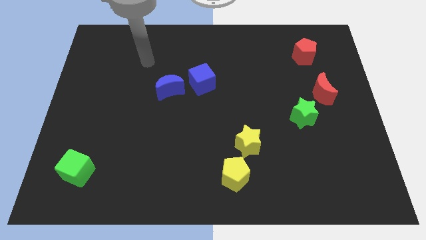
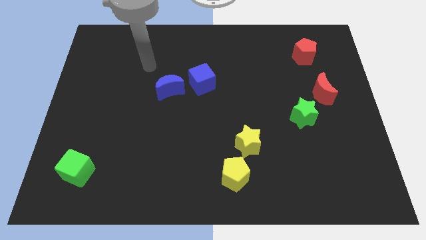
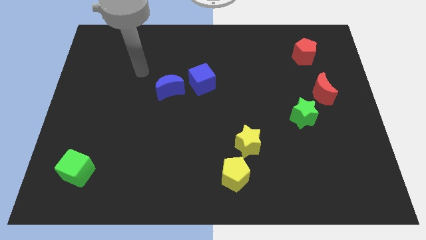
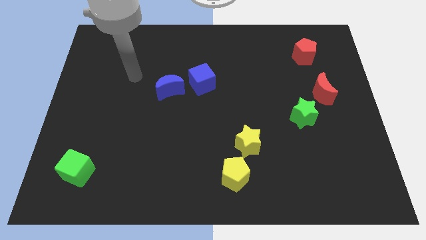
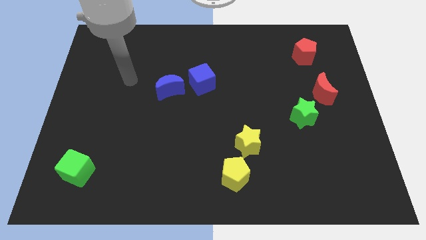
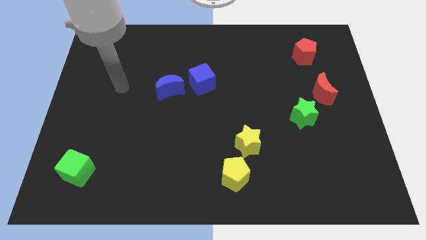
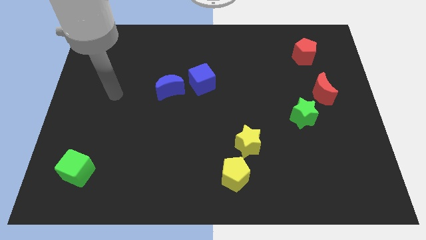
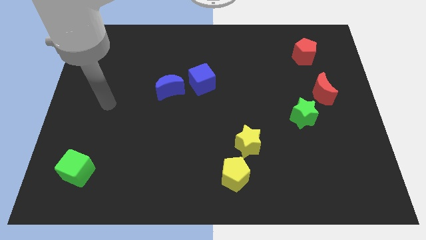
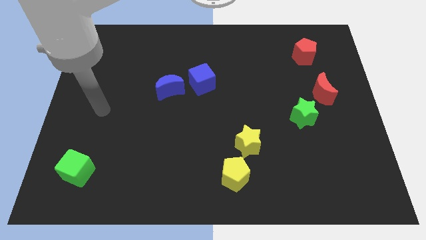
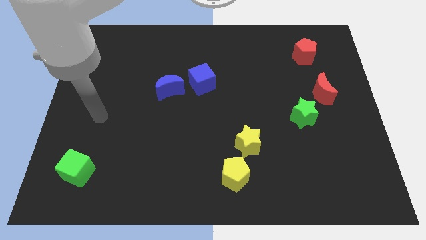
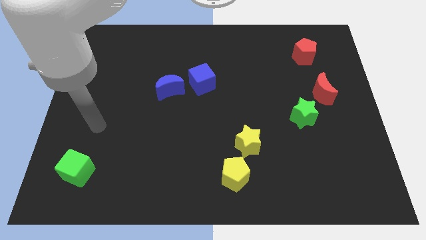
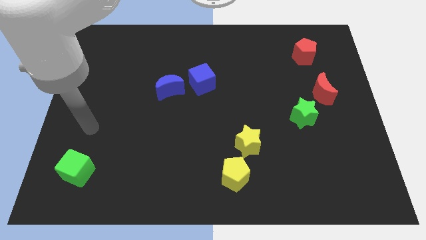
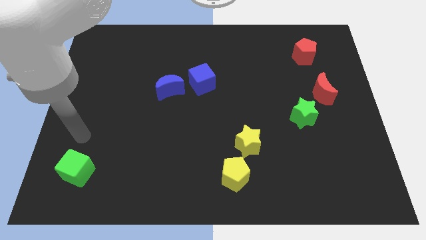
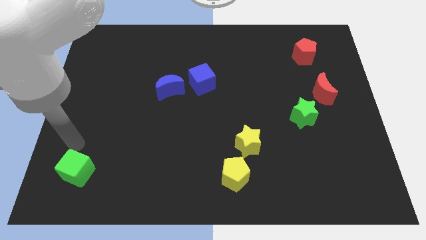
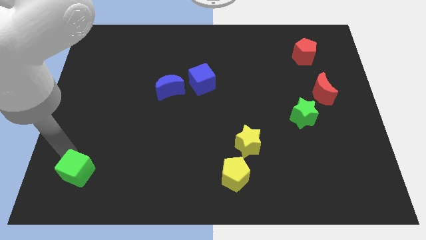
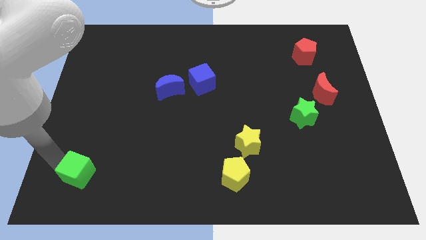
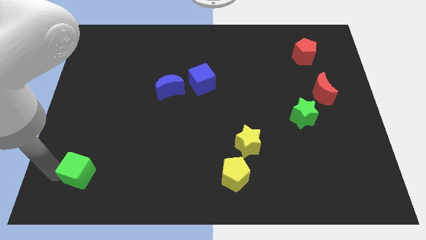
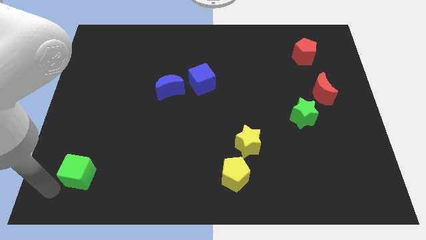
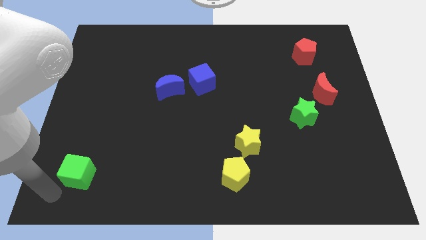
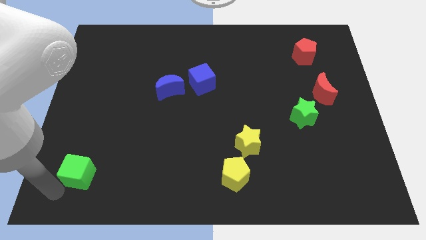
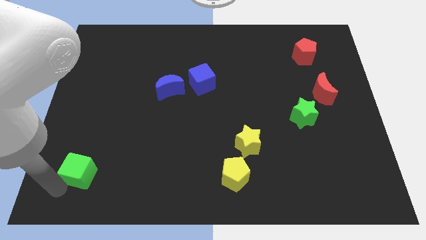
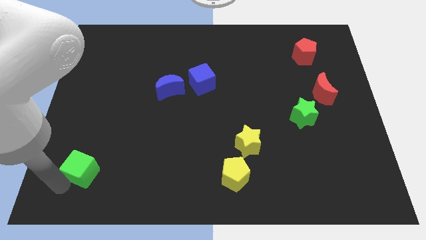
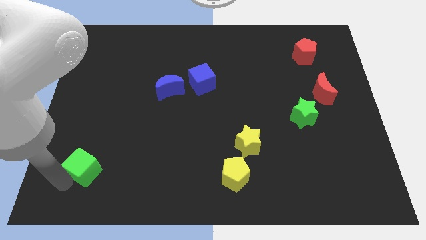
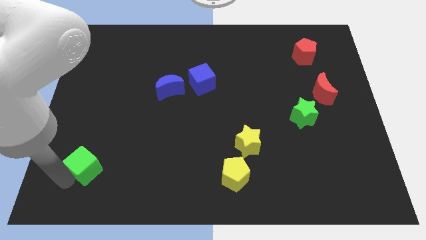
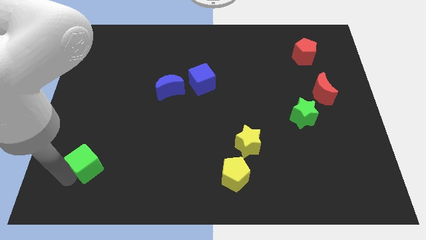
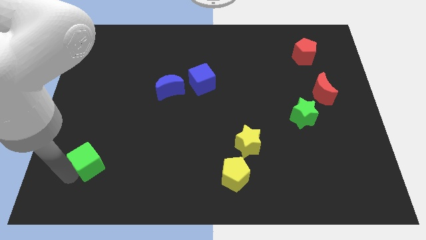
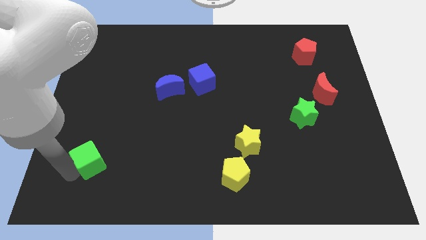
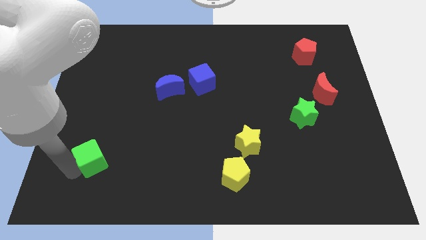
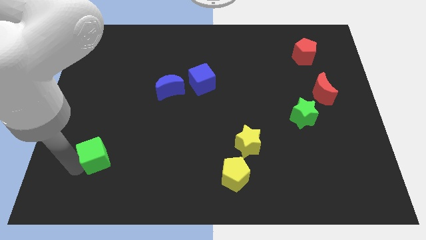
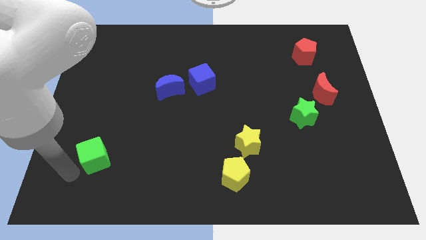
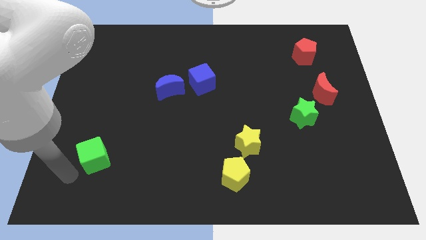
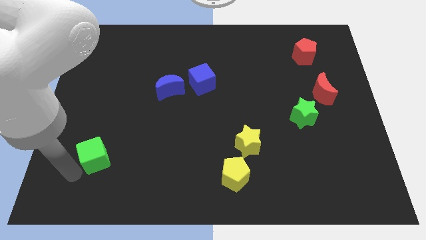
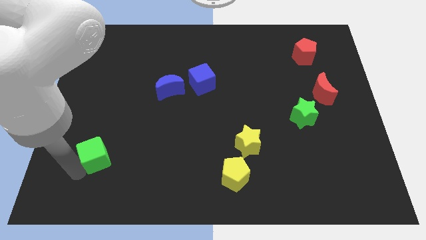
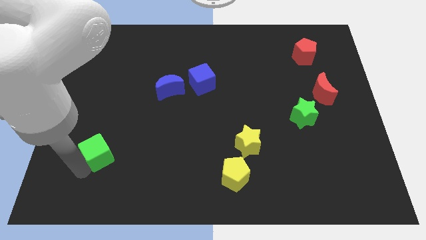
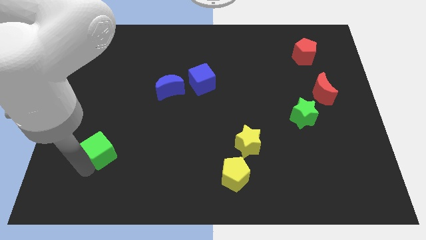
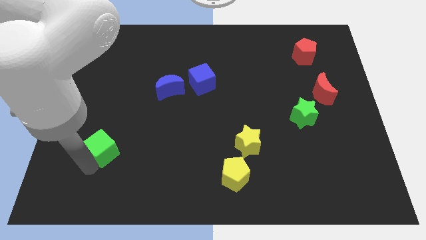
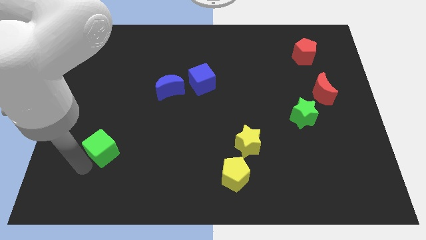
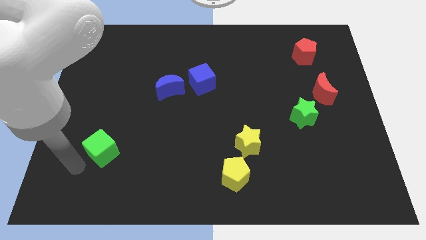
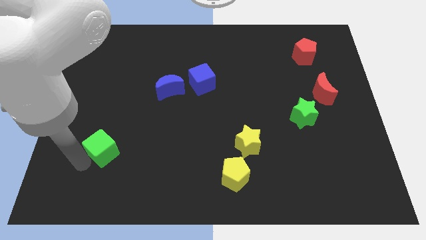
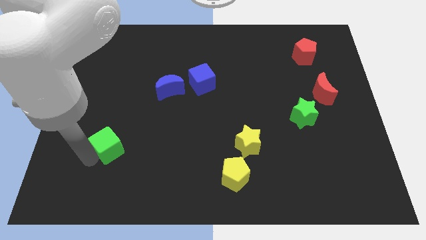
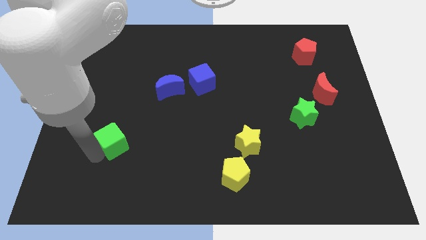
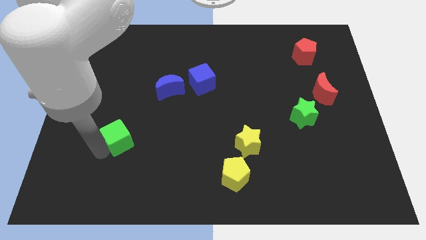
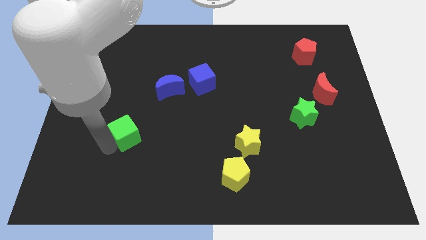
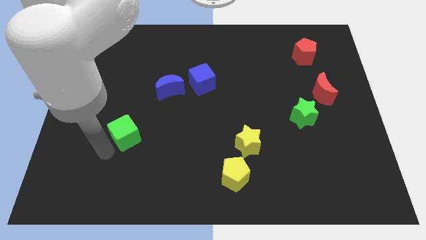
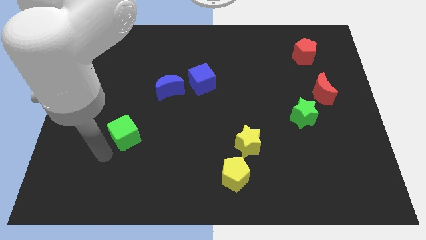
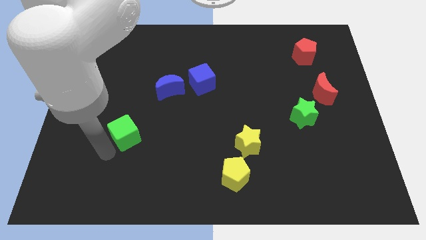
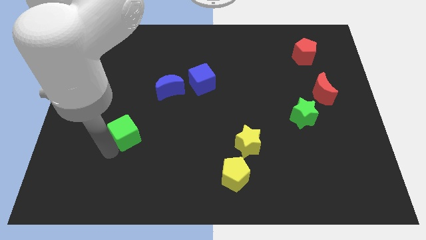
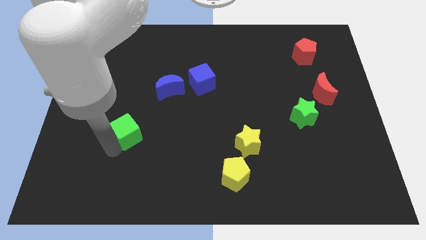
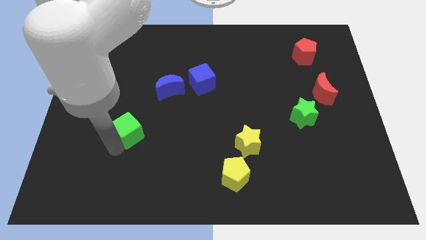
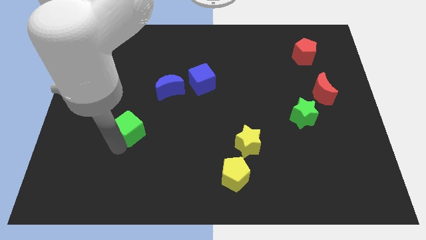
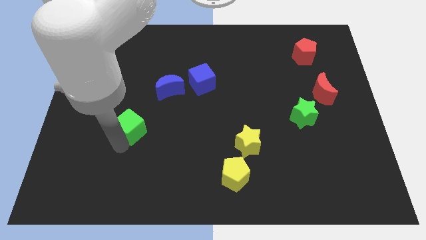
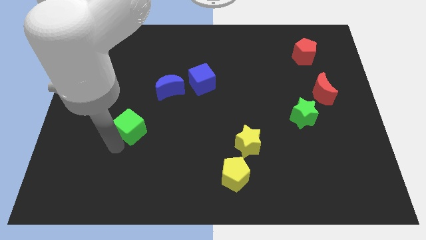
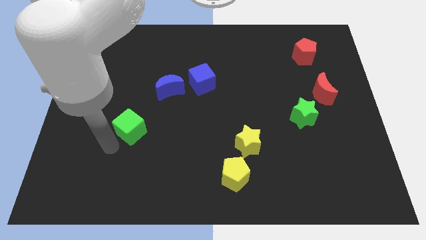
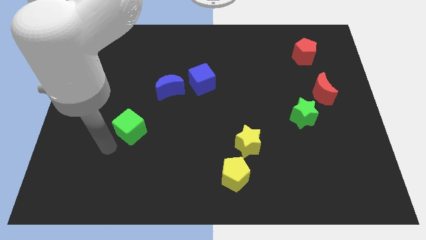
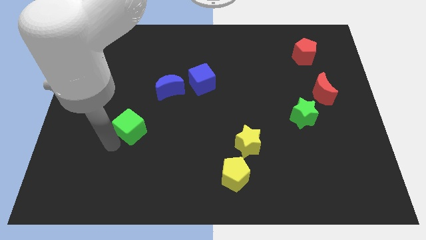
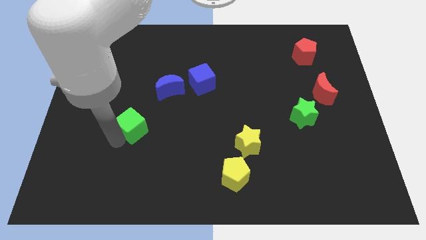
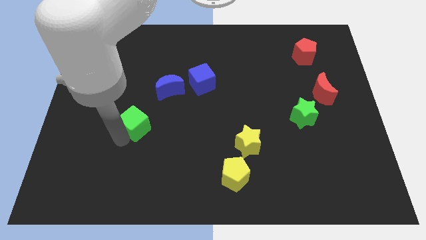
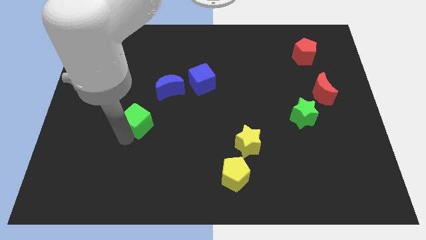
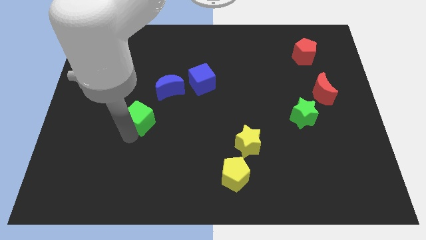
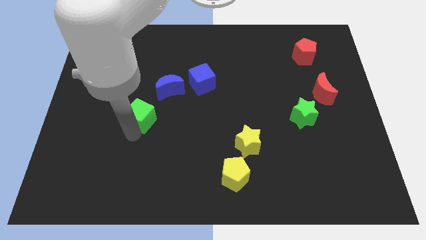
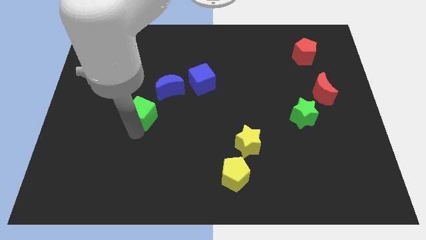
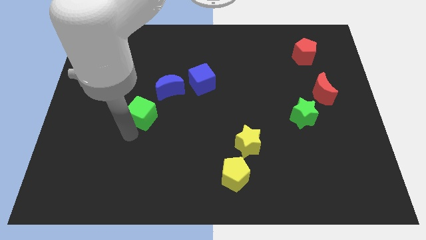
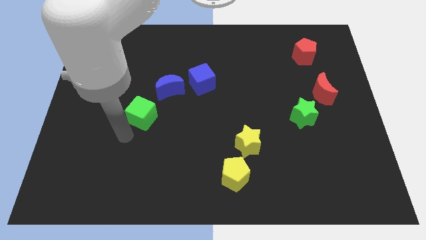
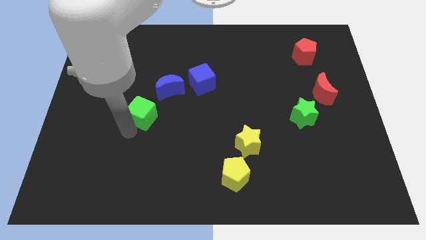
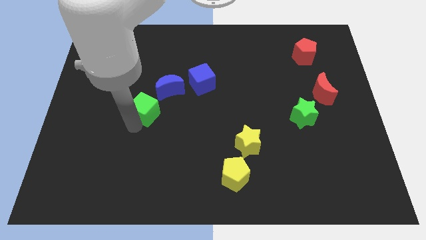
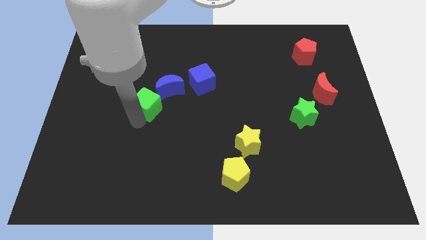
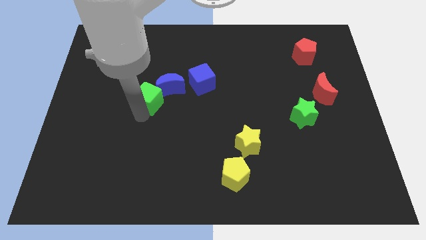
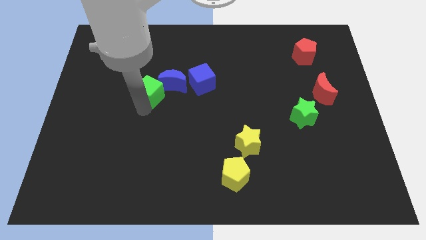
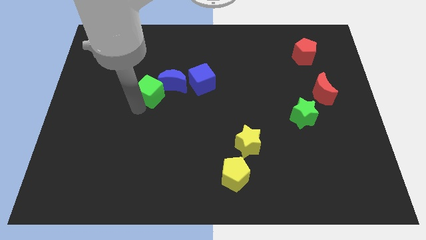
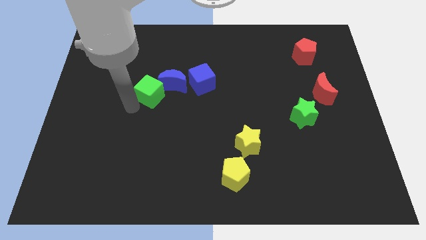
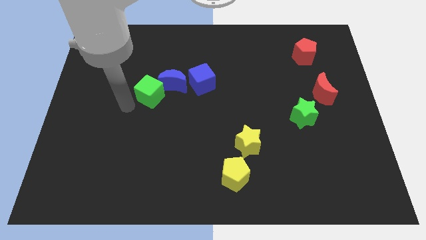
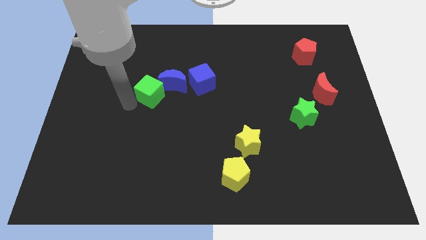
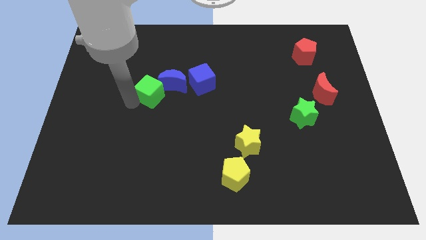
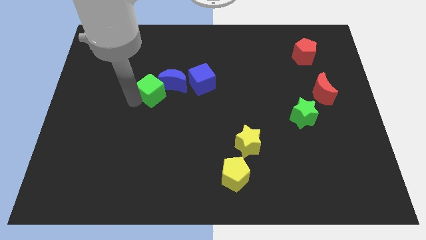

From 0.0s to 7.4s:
move the green cube next to the blue moon

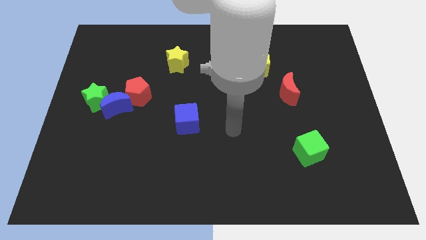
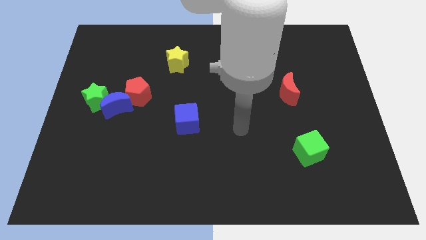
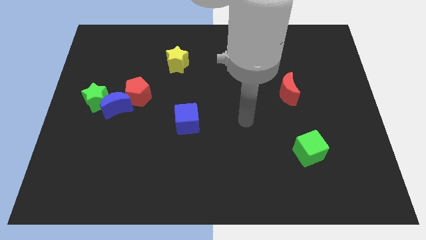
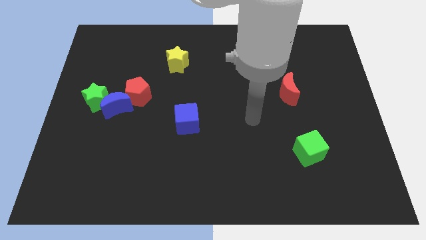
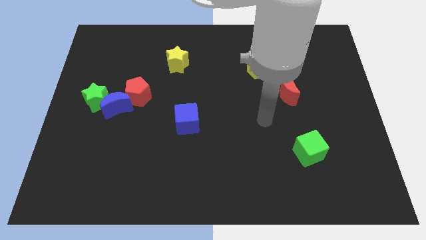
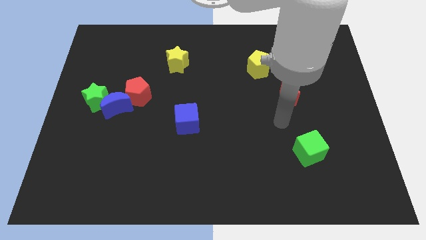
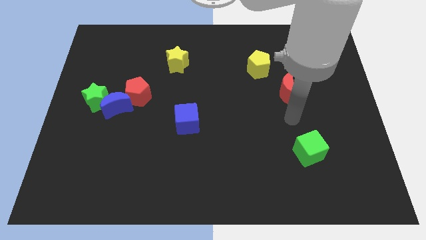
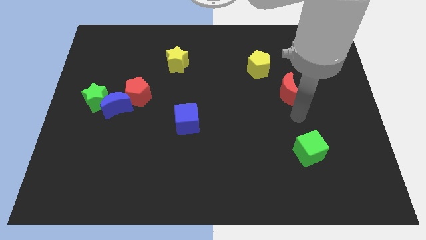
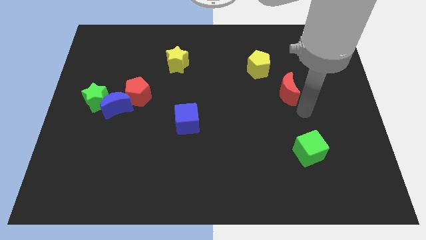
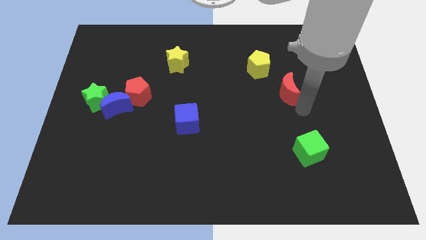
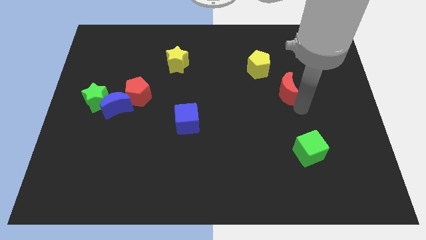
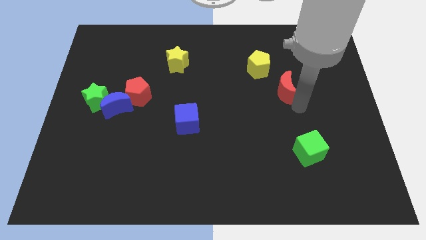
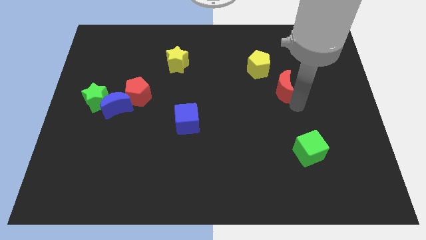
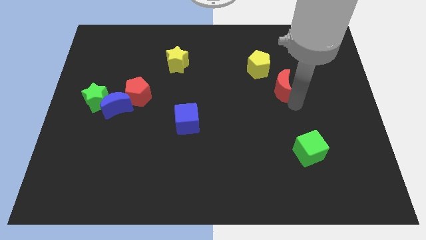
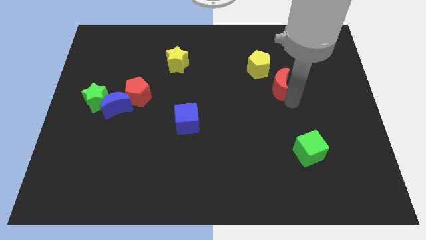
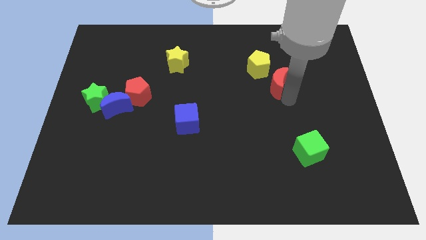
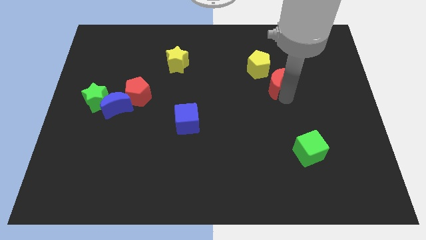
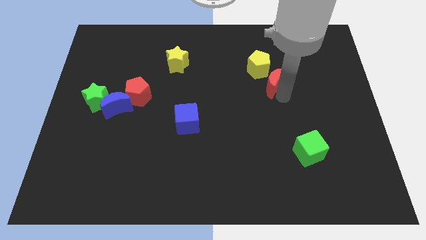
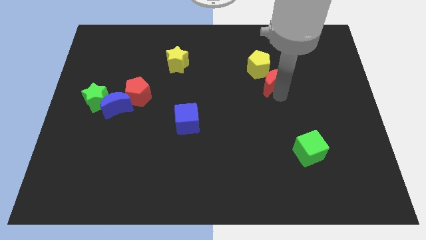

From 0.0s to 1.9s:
put the red moon next to the yellow pentagon
